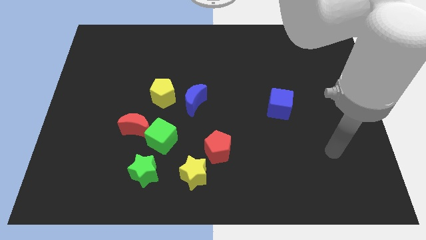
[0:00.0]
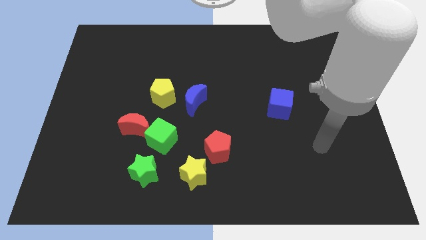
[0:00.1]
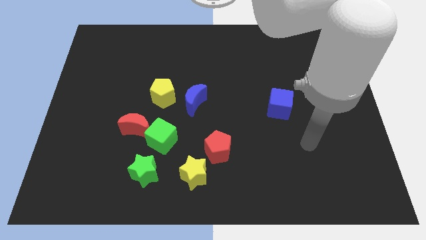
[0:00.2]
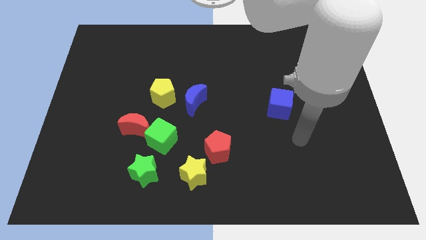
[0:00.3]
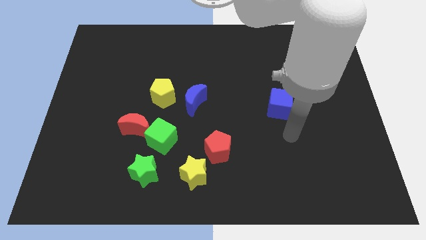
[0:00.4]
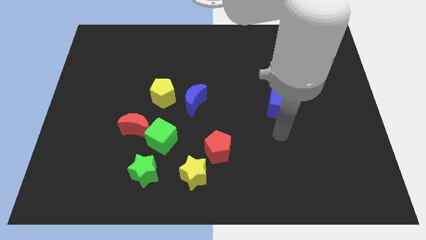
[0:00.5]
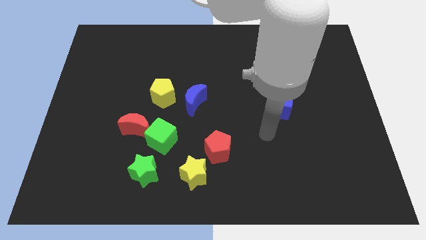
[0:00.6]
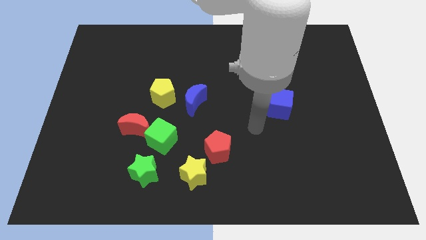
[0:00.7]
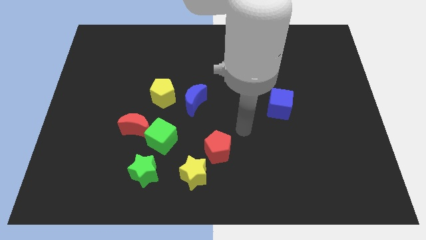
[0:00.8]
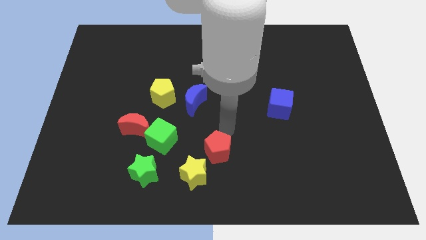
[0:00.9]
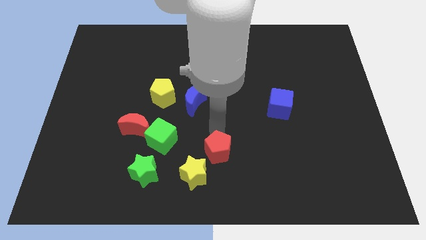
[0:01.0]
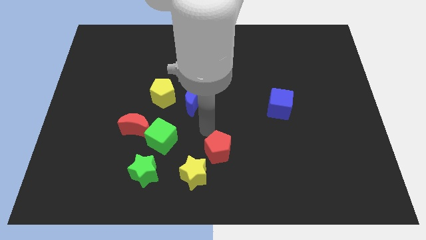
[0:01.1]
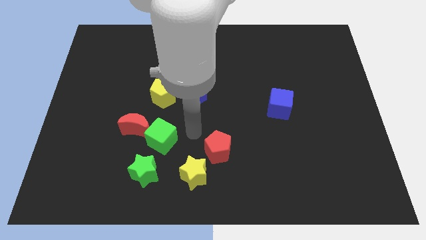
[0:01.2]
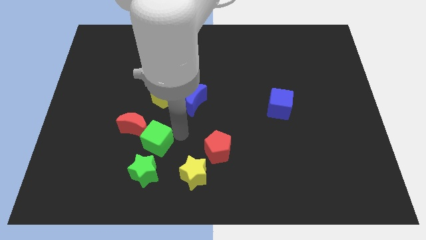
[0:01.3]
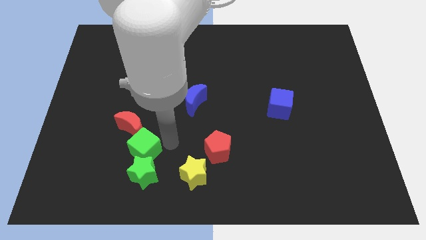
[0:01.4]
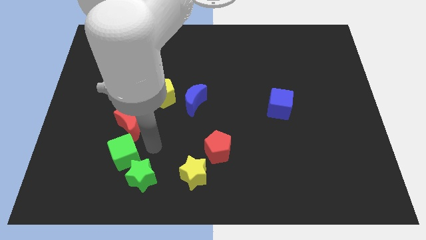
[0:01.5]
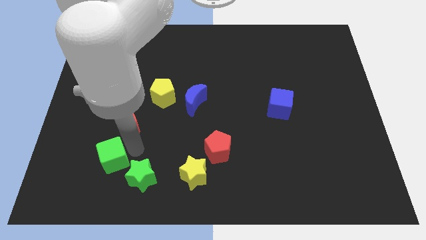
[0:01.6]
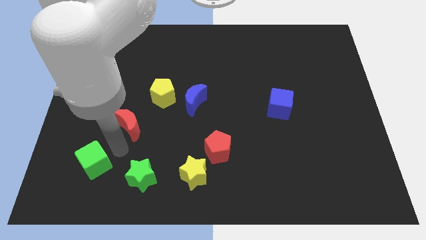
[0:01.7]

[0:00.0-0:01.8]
separate the red moon from the green cube

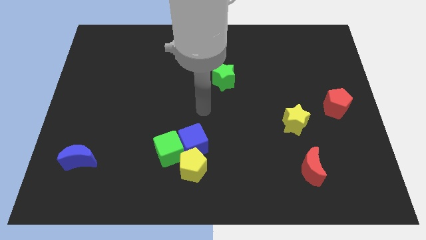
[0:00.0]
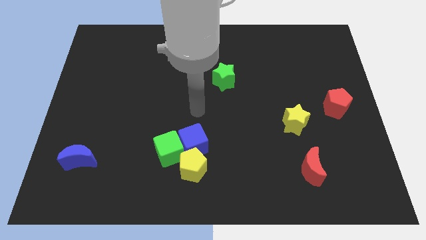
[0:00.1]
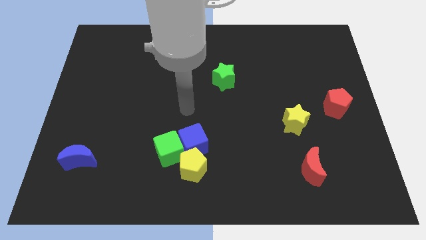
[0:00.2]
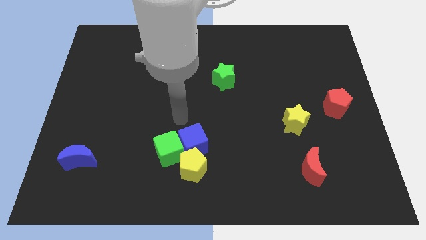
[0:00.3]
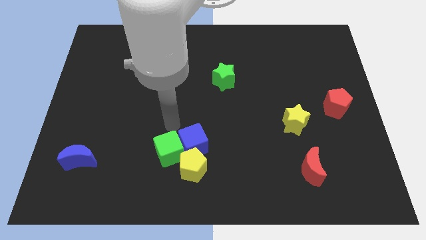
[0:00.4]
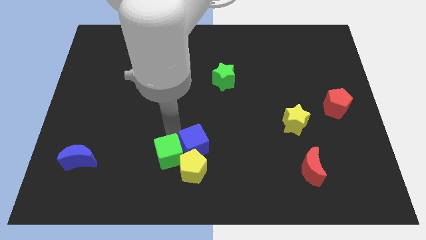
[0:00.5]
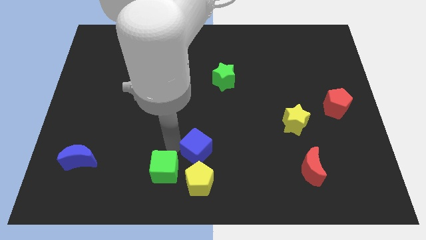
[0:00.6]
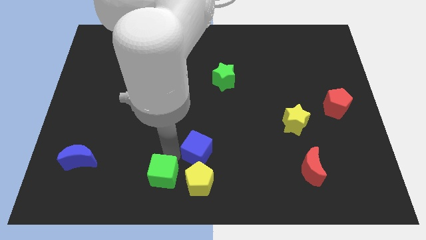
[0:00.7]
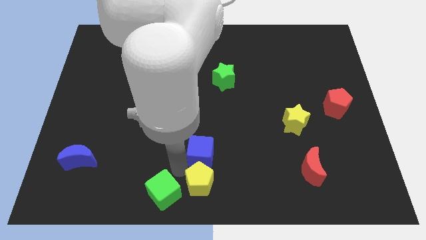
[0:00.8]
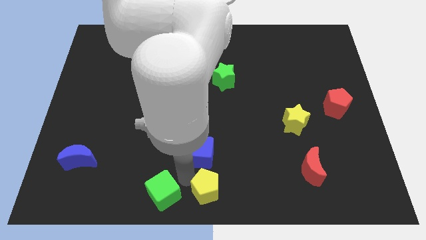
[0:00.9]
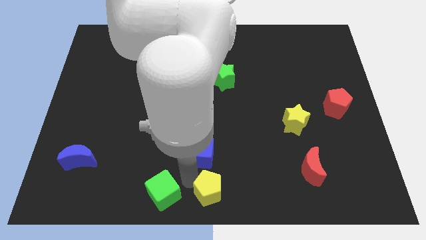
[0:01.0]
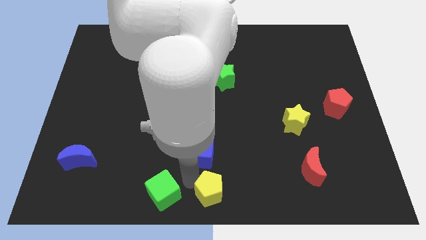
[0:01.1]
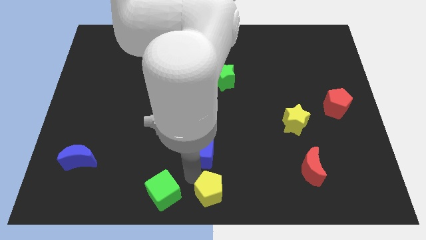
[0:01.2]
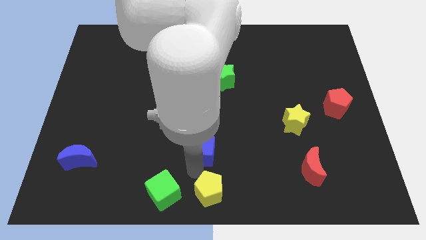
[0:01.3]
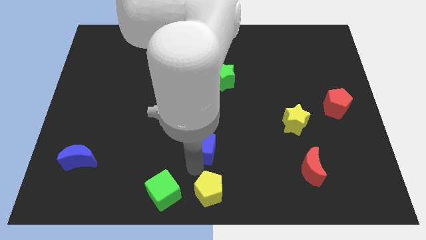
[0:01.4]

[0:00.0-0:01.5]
move the blue cube away from the green cube and yellow pentagon

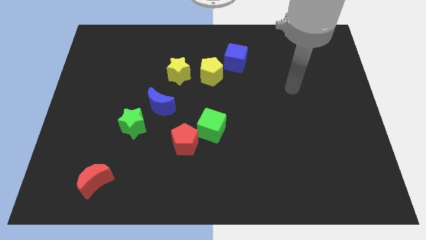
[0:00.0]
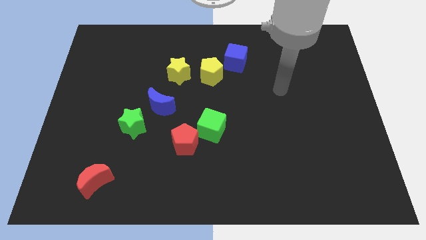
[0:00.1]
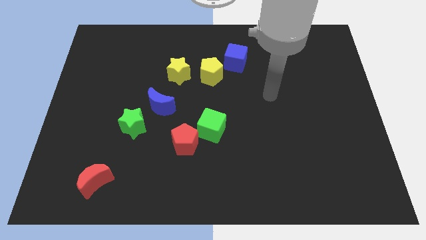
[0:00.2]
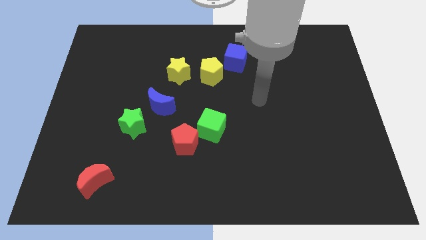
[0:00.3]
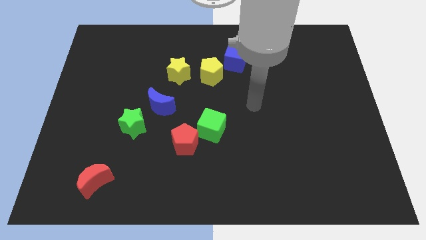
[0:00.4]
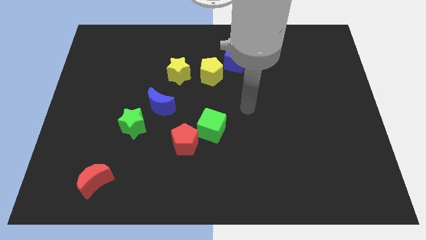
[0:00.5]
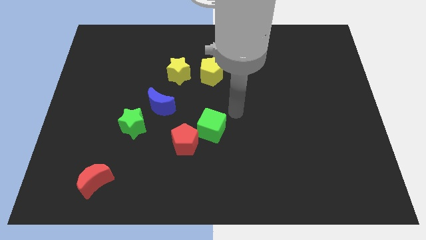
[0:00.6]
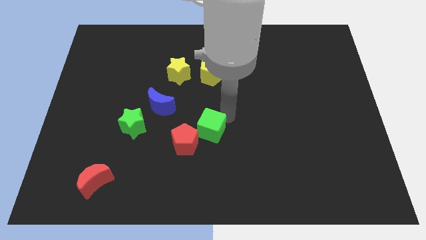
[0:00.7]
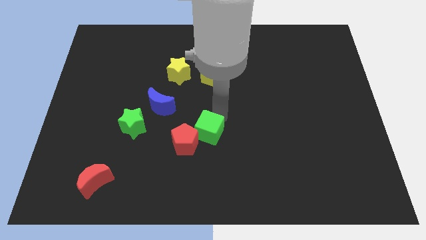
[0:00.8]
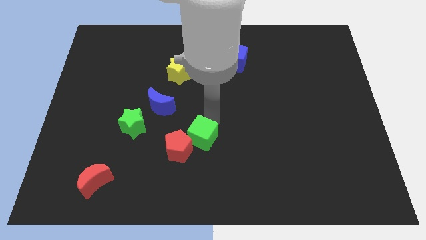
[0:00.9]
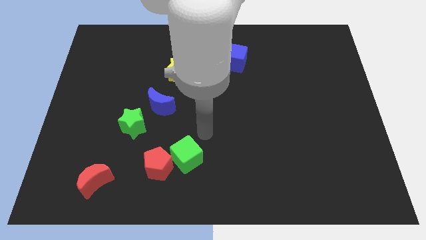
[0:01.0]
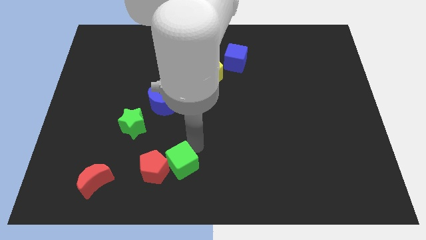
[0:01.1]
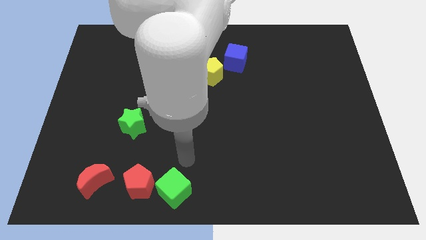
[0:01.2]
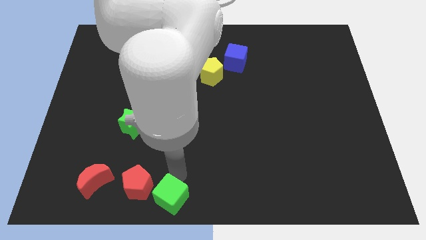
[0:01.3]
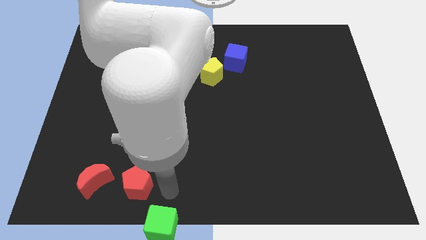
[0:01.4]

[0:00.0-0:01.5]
pull the red pentagon apart from the green cube

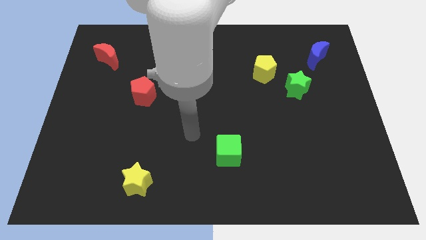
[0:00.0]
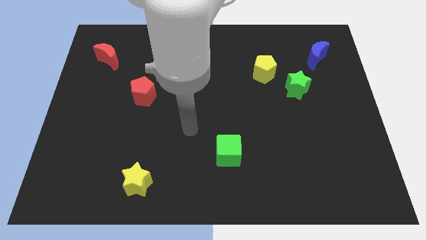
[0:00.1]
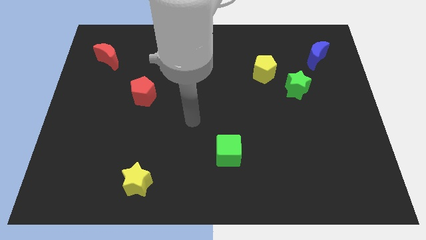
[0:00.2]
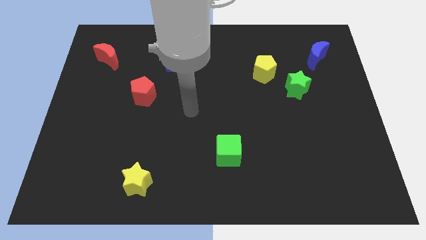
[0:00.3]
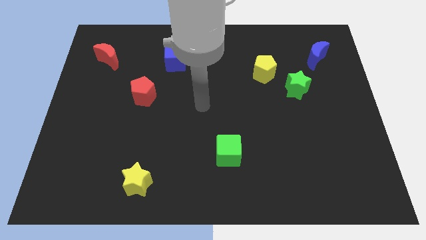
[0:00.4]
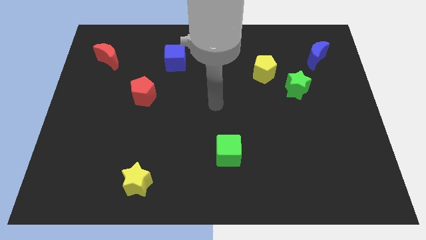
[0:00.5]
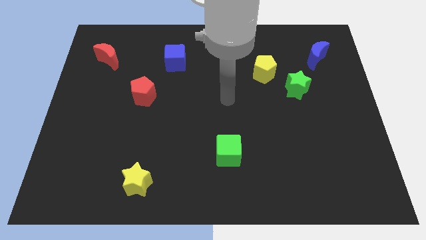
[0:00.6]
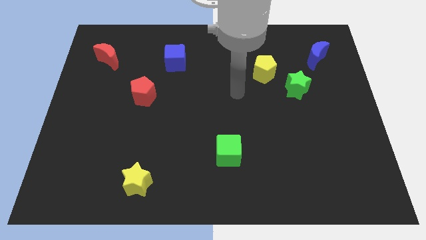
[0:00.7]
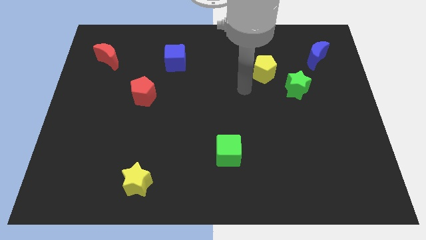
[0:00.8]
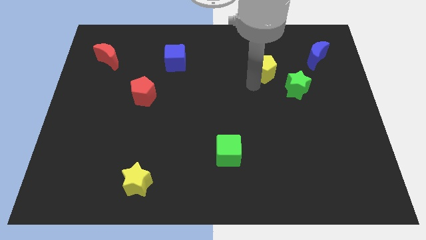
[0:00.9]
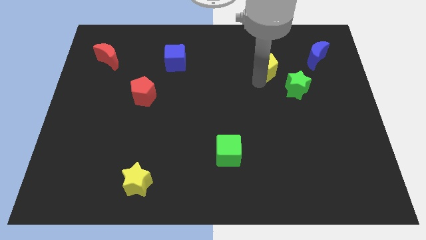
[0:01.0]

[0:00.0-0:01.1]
pull the green star apart from the yellow pentagon

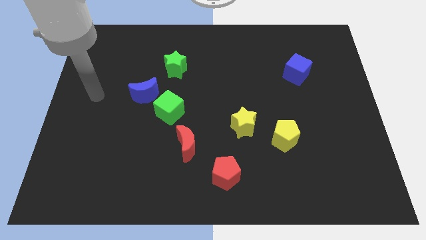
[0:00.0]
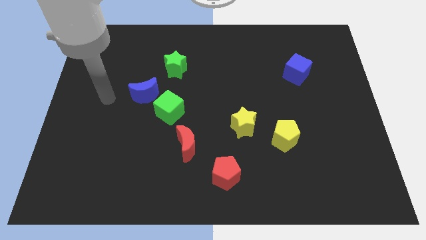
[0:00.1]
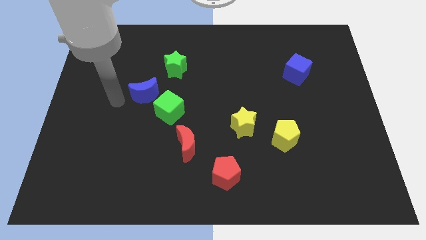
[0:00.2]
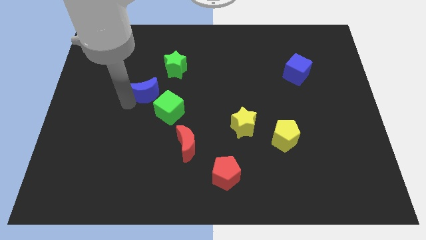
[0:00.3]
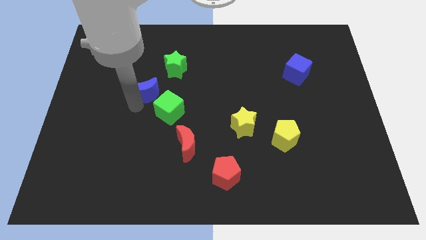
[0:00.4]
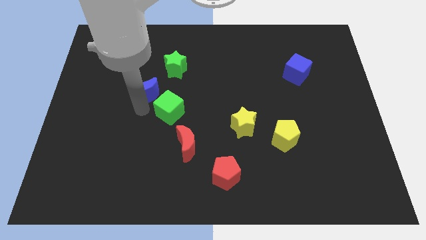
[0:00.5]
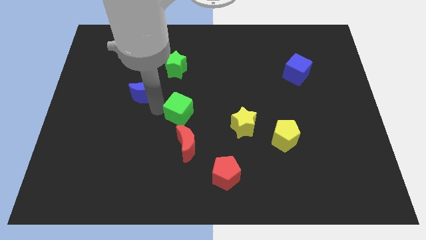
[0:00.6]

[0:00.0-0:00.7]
separate the blue moon from the green cube

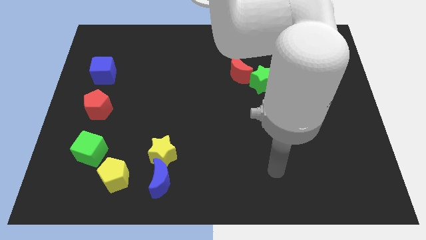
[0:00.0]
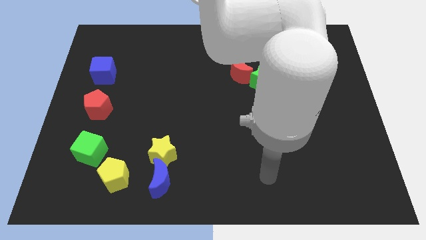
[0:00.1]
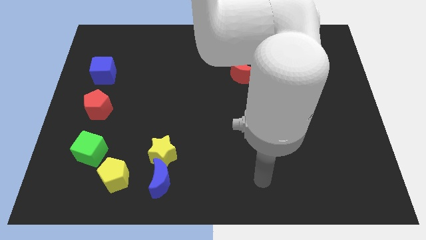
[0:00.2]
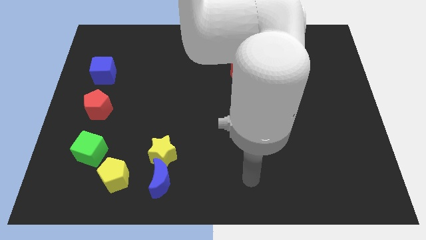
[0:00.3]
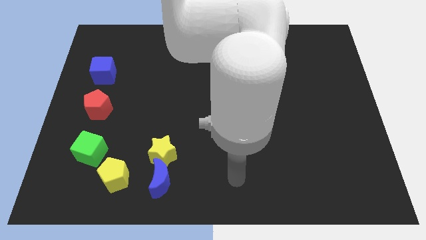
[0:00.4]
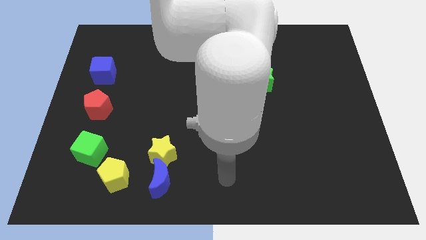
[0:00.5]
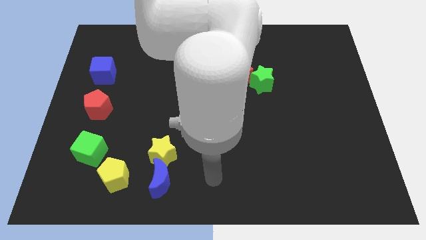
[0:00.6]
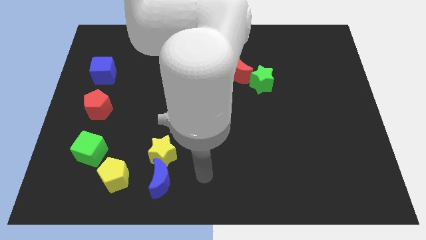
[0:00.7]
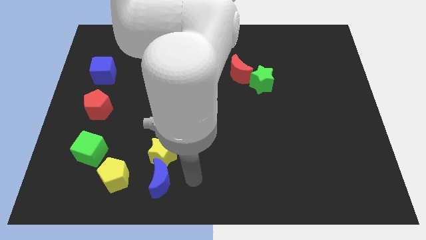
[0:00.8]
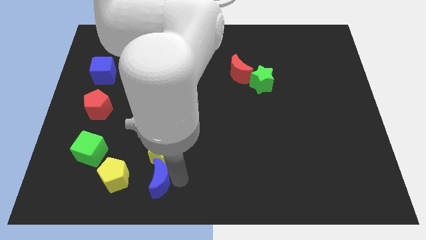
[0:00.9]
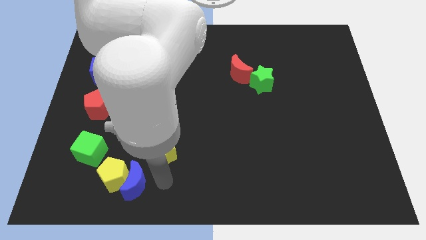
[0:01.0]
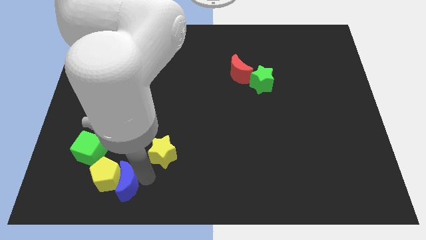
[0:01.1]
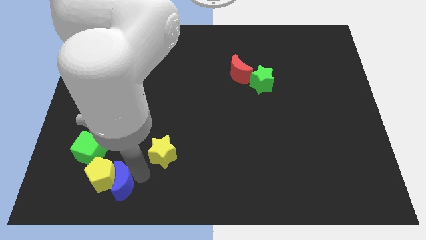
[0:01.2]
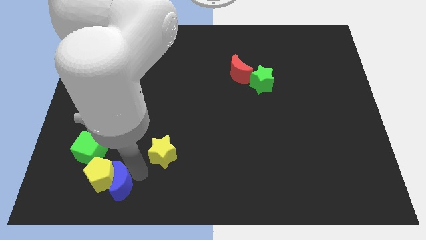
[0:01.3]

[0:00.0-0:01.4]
move the yellow star away from the blue moon

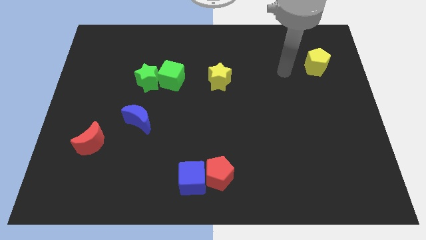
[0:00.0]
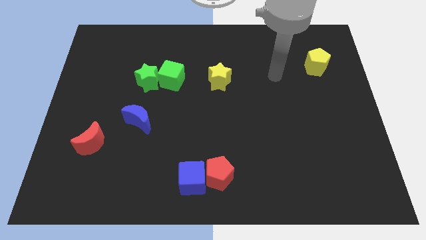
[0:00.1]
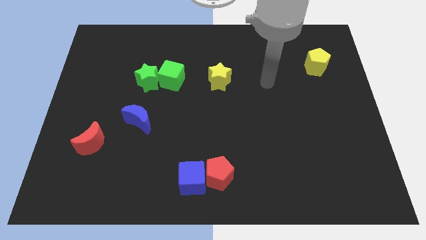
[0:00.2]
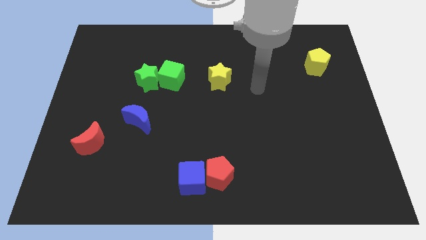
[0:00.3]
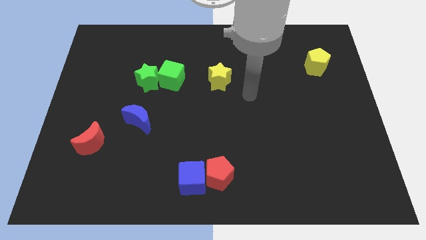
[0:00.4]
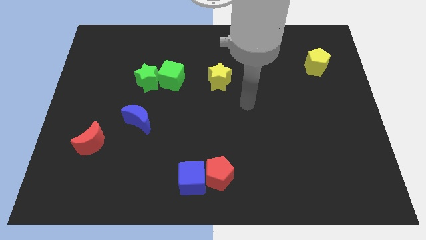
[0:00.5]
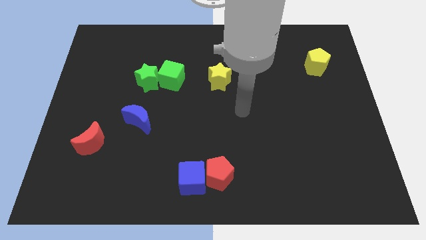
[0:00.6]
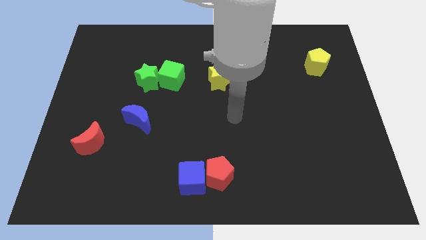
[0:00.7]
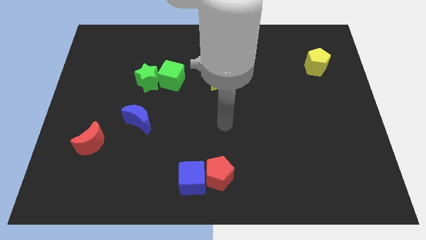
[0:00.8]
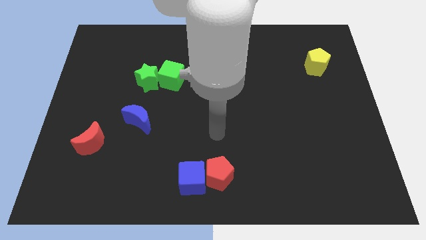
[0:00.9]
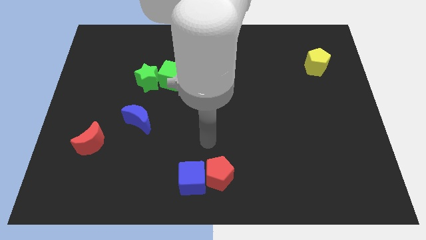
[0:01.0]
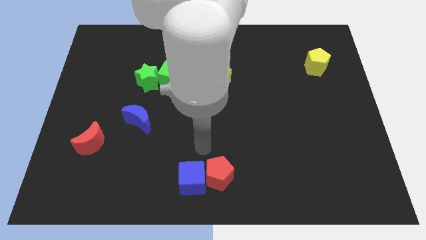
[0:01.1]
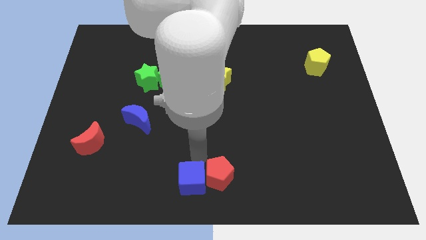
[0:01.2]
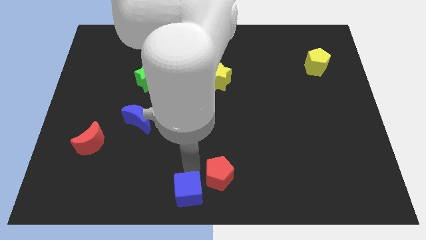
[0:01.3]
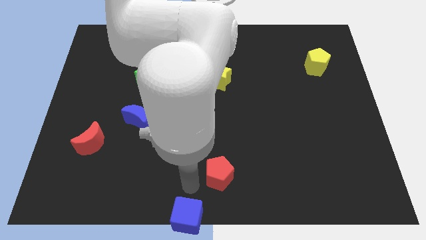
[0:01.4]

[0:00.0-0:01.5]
move the red pentagon away from the blue cube
